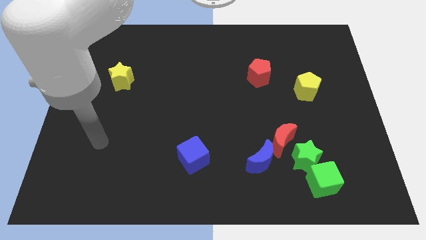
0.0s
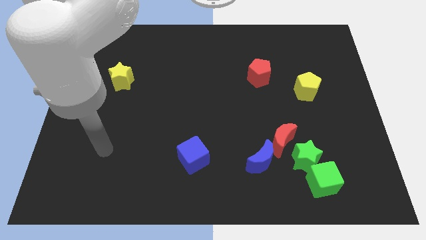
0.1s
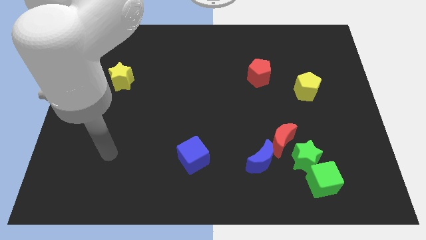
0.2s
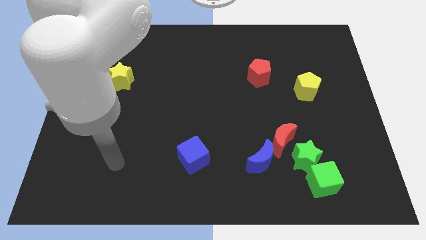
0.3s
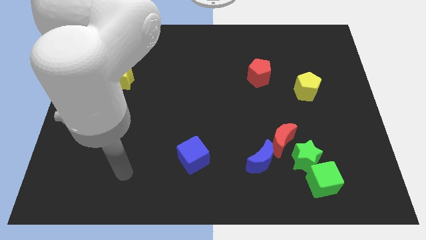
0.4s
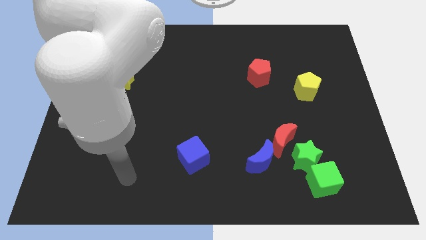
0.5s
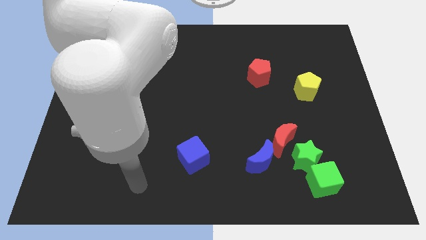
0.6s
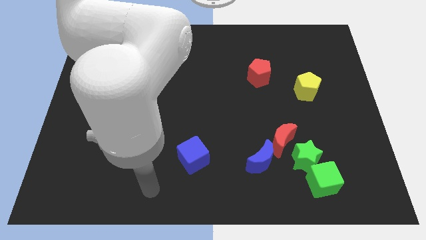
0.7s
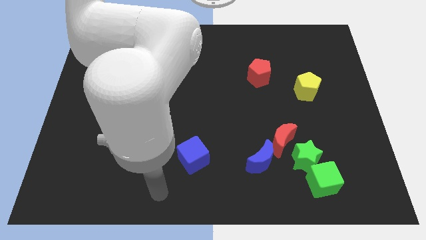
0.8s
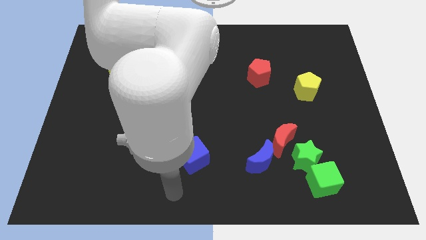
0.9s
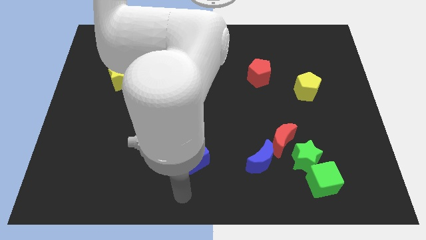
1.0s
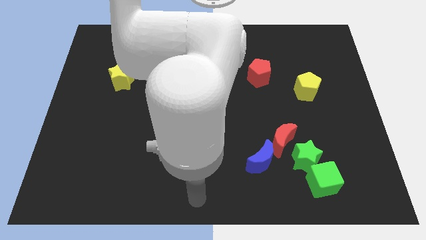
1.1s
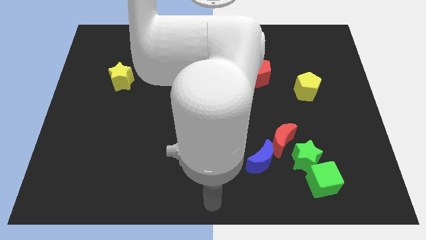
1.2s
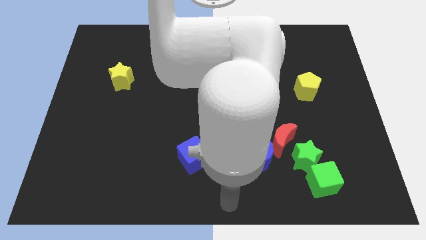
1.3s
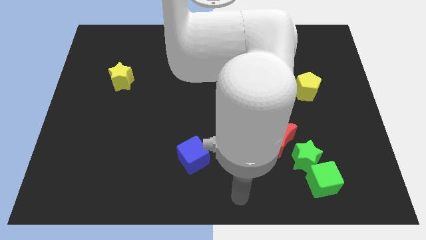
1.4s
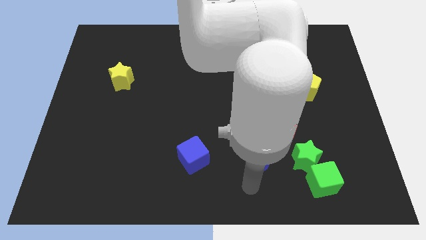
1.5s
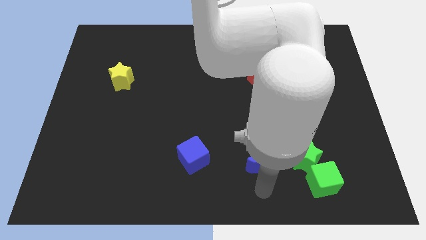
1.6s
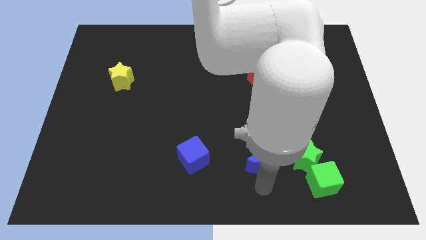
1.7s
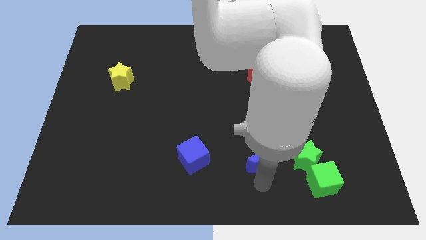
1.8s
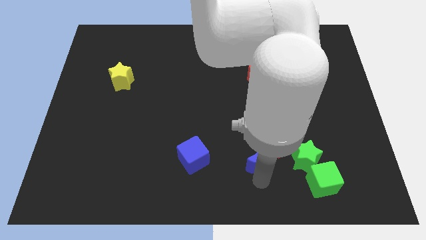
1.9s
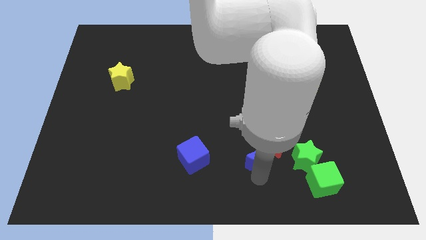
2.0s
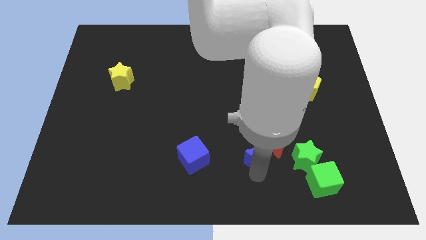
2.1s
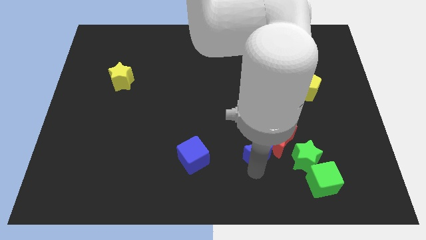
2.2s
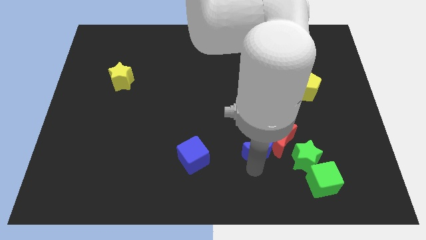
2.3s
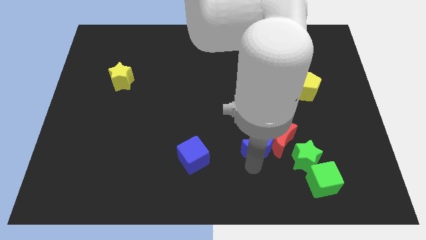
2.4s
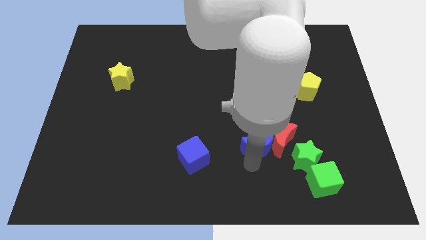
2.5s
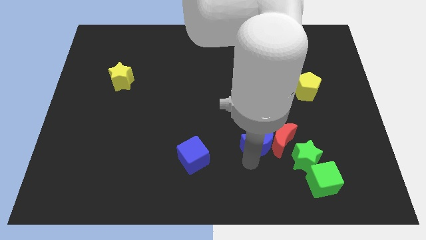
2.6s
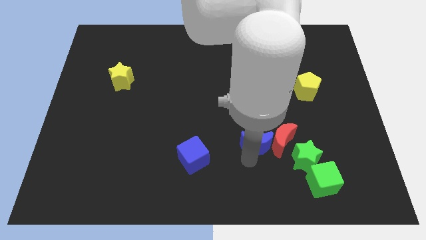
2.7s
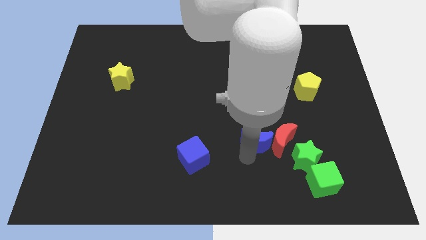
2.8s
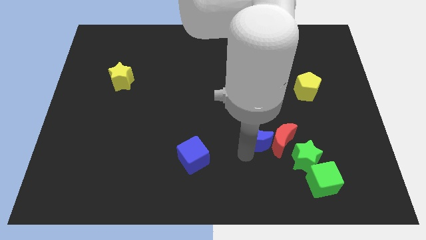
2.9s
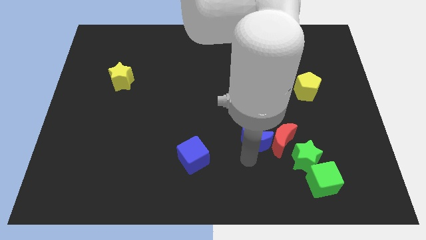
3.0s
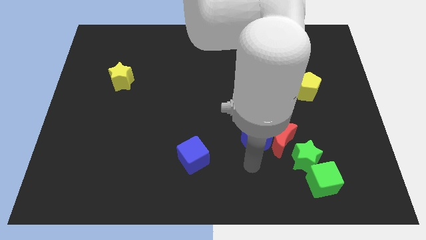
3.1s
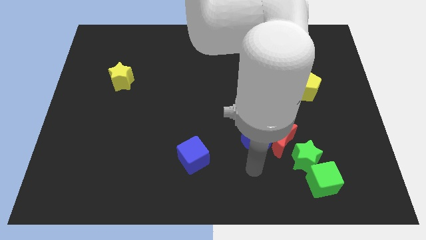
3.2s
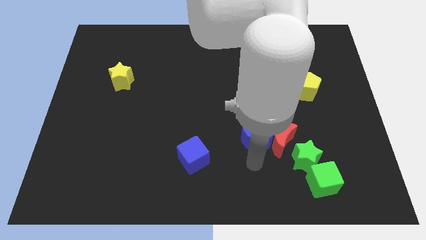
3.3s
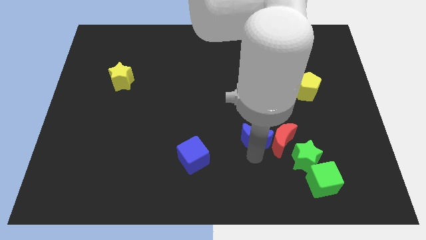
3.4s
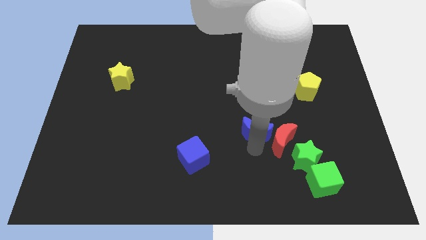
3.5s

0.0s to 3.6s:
slide the blue moon a little bit upwards

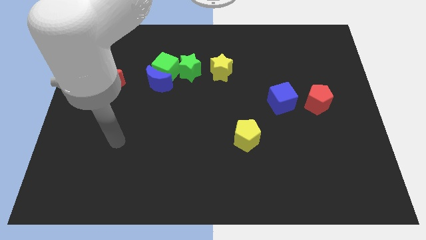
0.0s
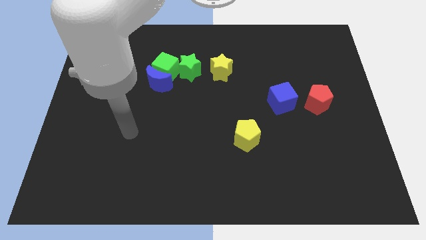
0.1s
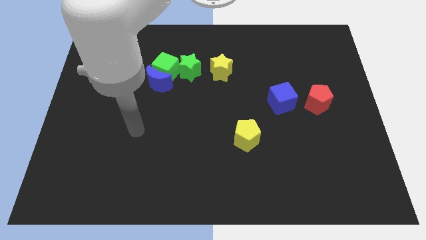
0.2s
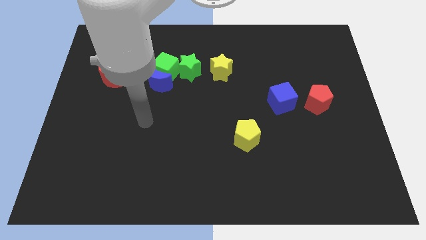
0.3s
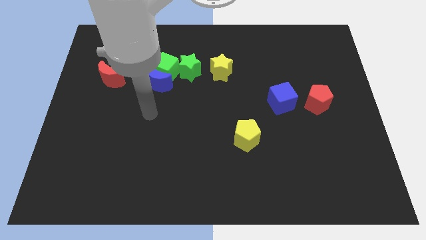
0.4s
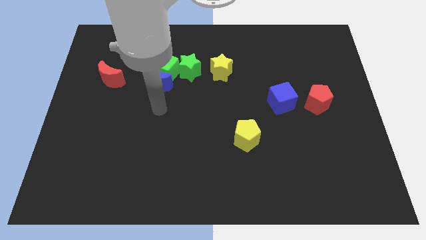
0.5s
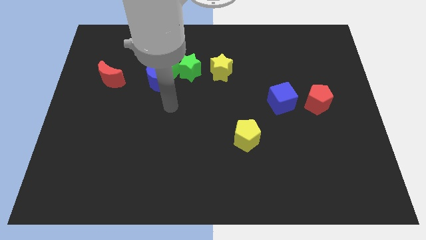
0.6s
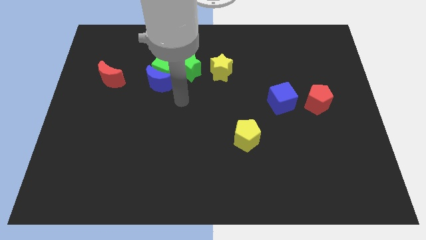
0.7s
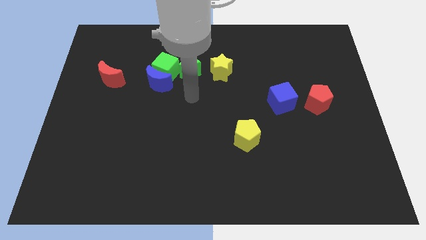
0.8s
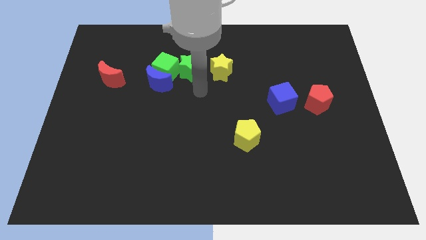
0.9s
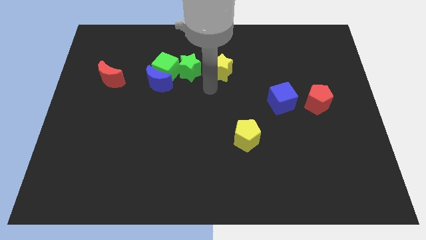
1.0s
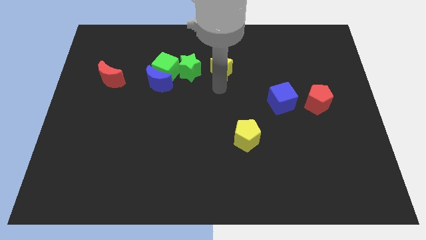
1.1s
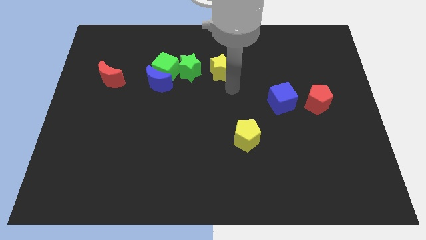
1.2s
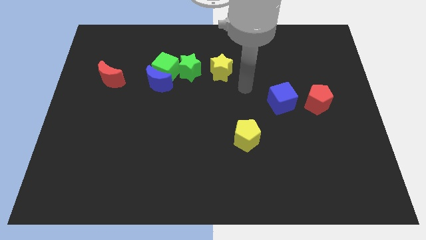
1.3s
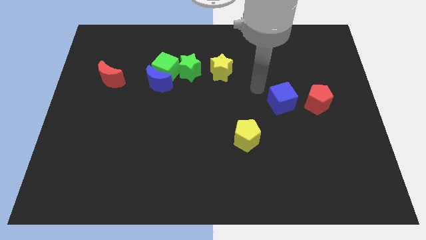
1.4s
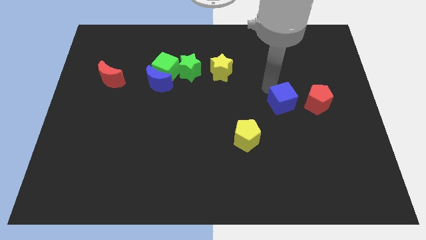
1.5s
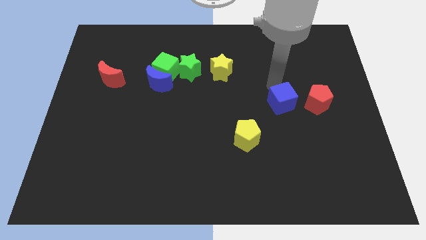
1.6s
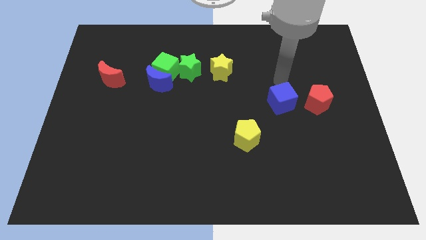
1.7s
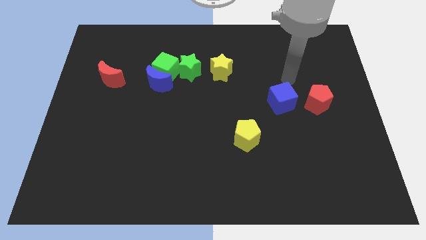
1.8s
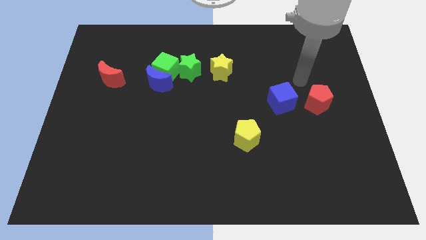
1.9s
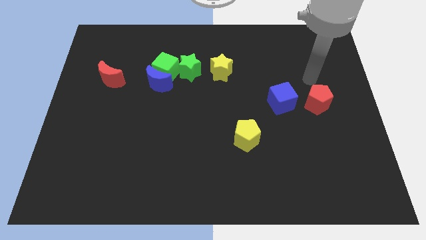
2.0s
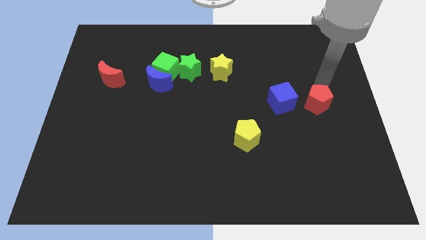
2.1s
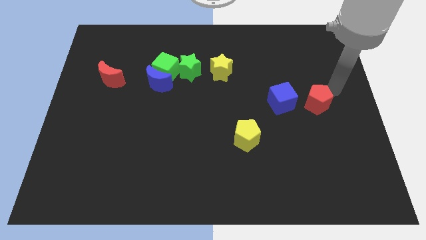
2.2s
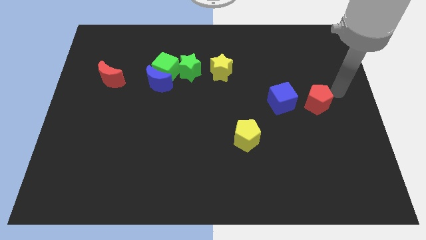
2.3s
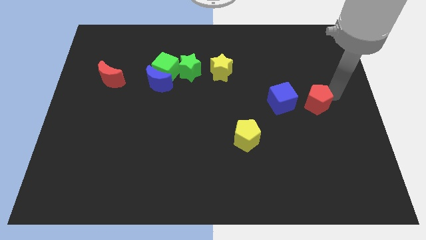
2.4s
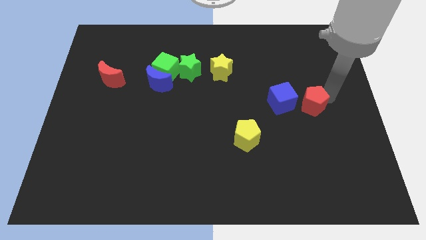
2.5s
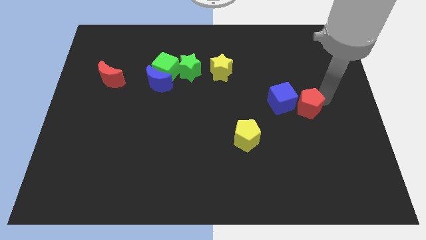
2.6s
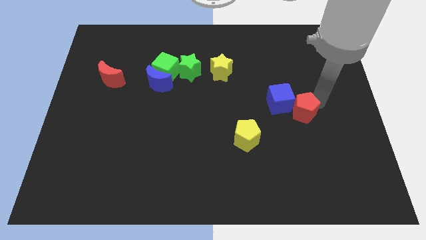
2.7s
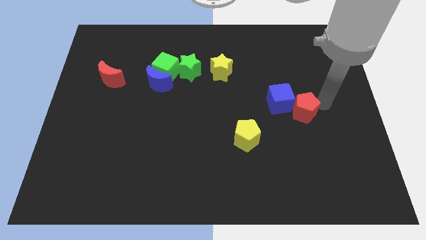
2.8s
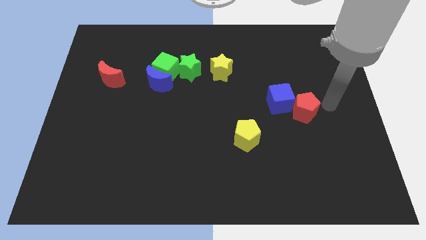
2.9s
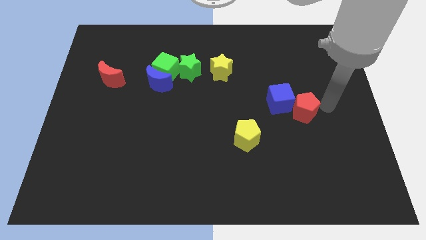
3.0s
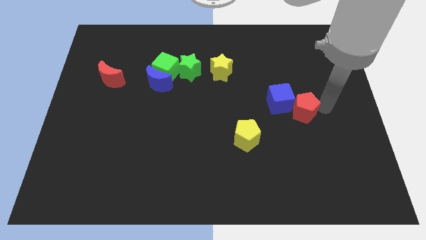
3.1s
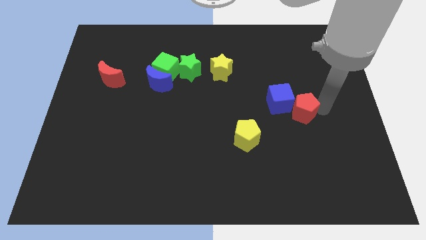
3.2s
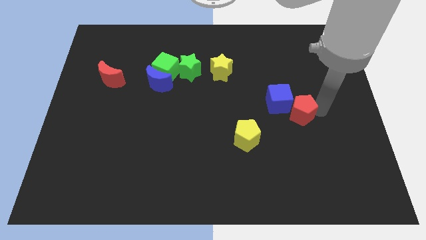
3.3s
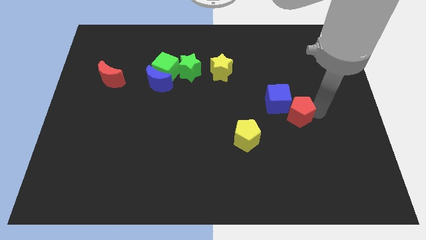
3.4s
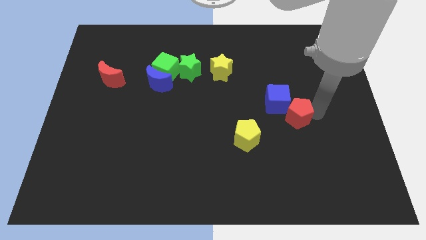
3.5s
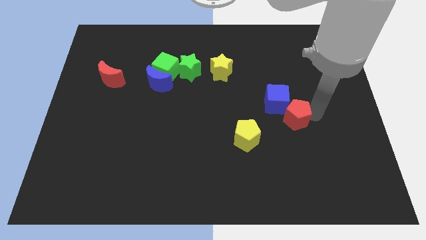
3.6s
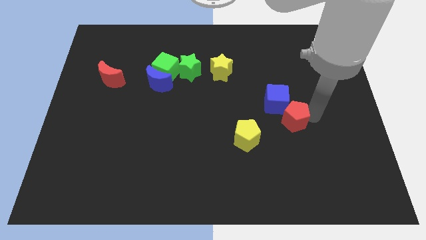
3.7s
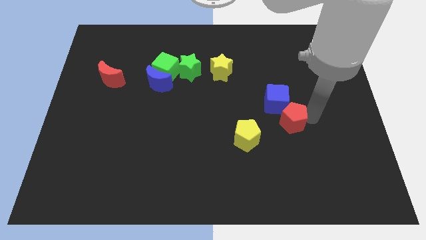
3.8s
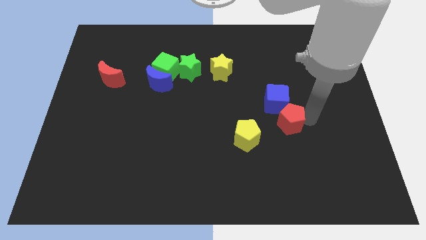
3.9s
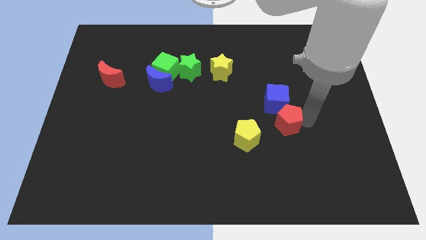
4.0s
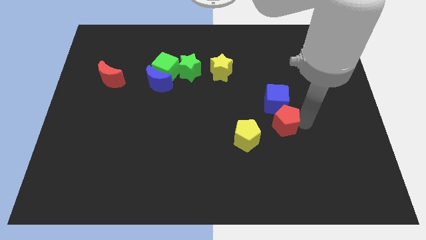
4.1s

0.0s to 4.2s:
slide the red pentagon to the left a bit
